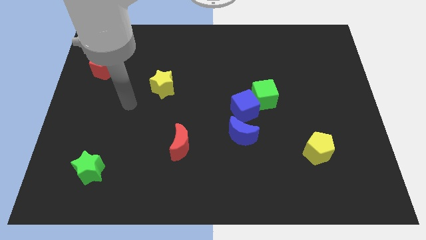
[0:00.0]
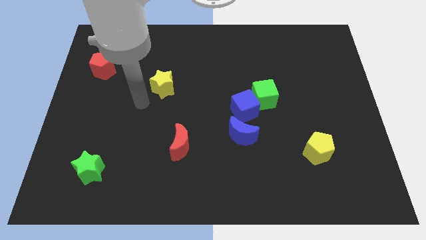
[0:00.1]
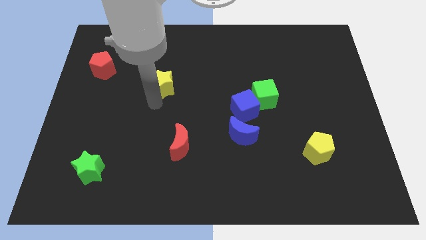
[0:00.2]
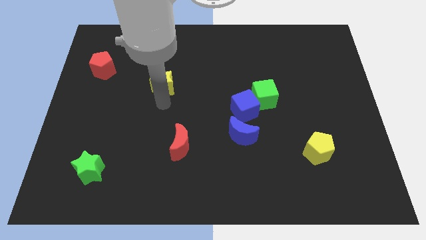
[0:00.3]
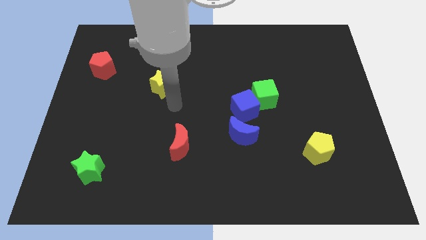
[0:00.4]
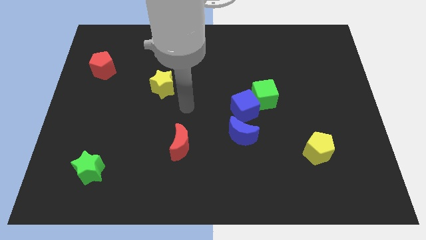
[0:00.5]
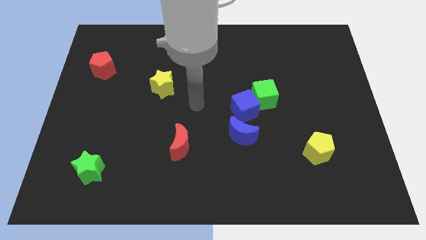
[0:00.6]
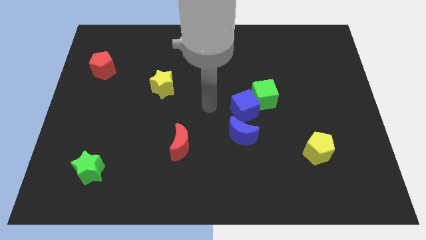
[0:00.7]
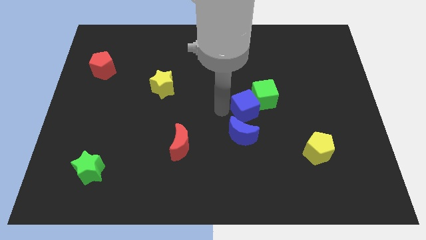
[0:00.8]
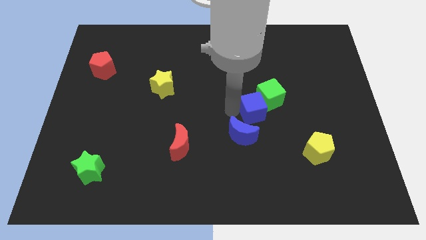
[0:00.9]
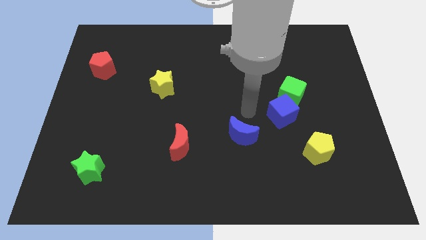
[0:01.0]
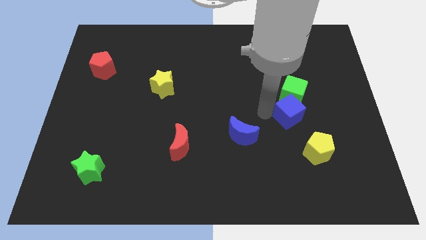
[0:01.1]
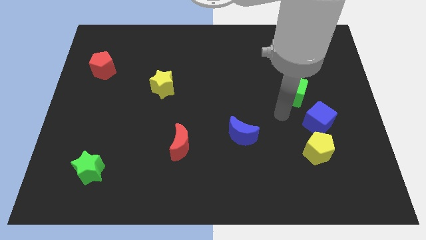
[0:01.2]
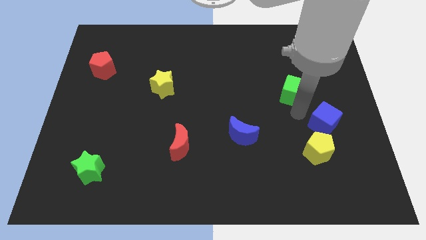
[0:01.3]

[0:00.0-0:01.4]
move the green cube away from the blue cube

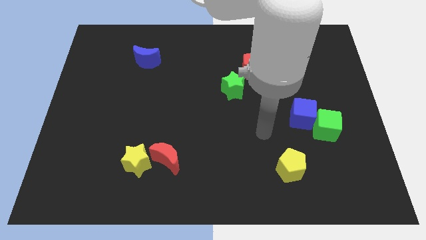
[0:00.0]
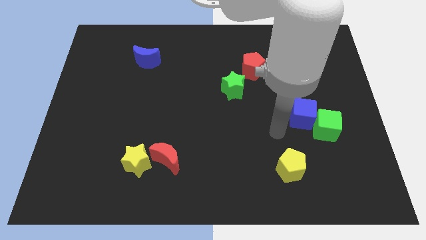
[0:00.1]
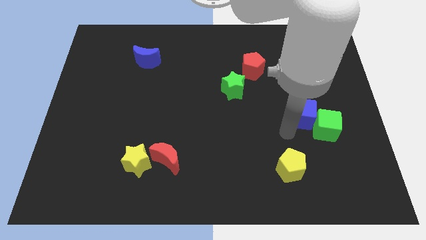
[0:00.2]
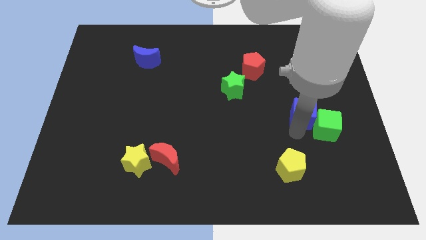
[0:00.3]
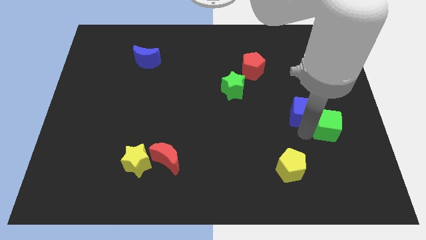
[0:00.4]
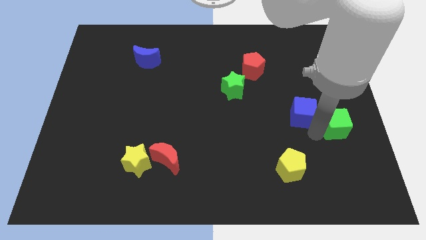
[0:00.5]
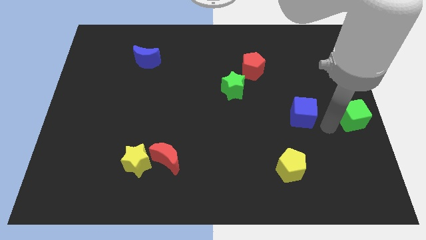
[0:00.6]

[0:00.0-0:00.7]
pull the blue cube apart from the green cube

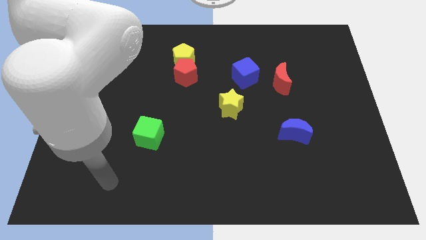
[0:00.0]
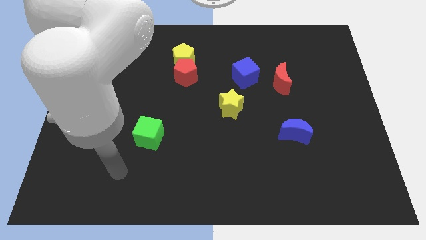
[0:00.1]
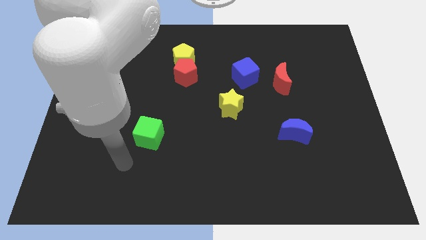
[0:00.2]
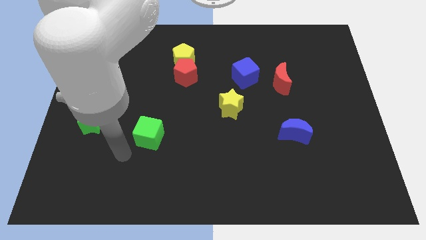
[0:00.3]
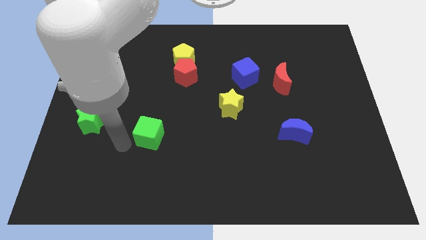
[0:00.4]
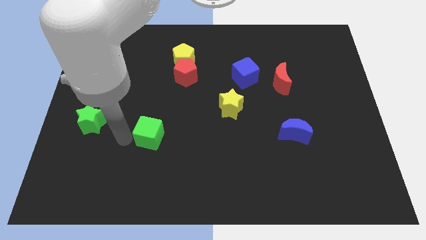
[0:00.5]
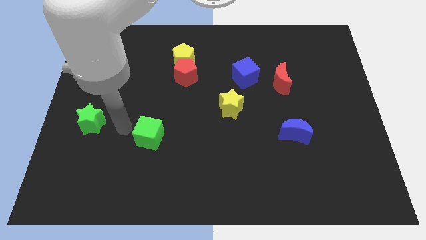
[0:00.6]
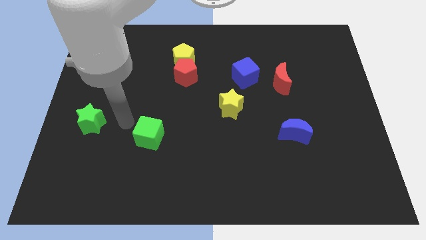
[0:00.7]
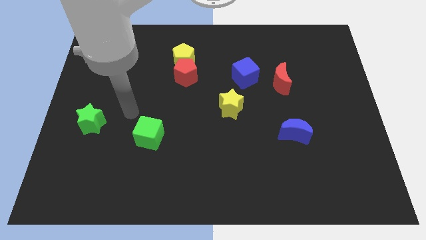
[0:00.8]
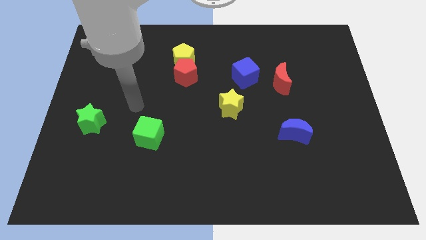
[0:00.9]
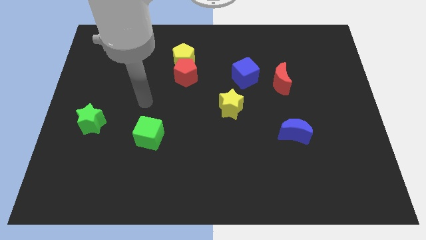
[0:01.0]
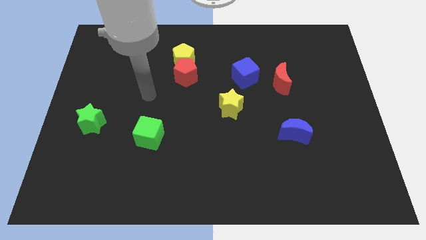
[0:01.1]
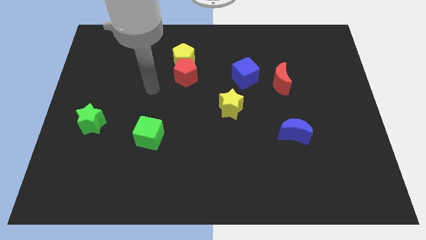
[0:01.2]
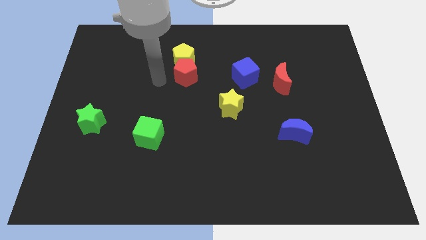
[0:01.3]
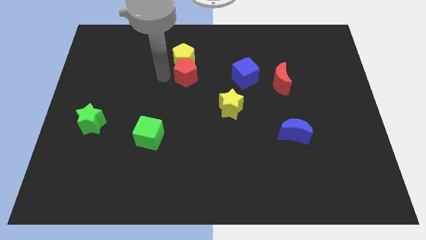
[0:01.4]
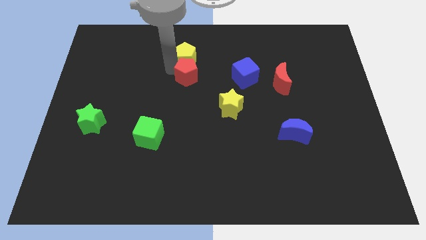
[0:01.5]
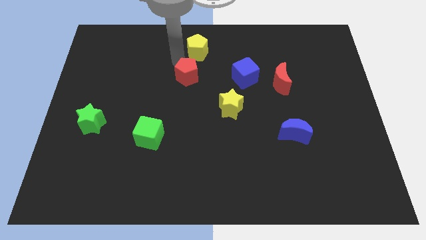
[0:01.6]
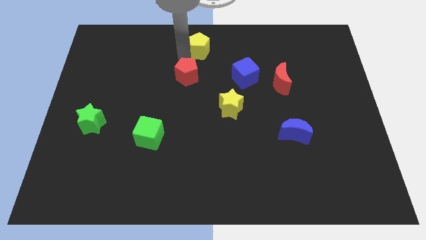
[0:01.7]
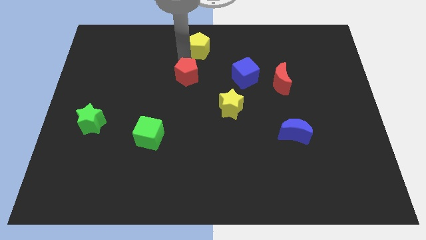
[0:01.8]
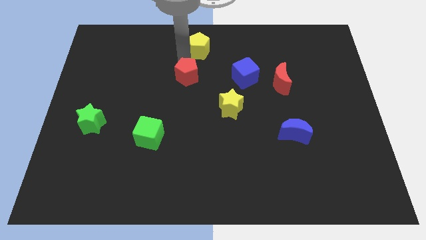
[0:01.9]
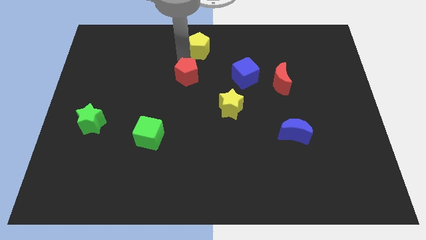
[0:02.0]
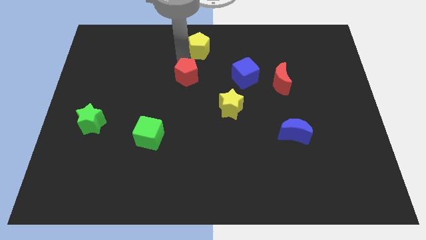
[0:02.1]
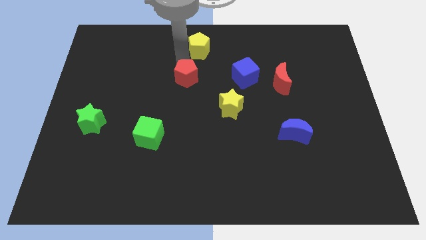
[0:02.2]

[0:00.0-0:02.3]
move the red pentagon away from the yellow pentagon

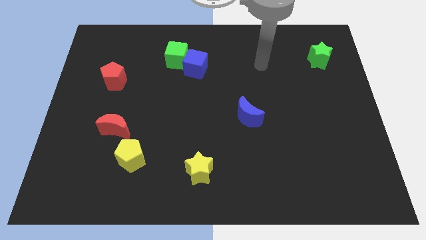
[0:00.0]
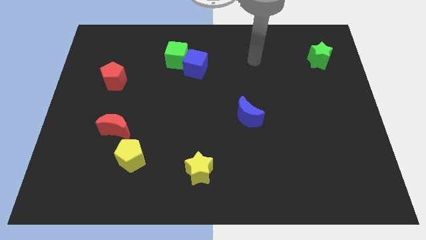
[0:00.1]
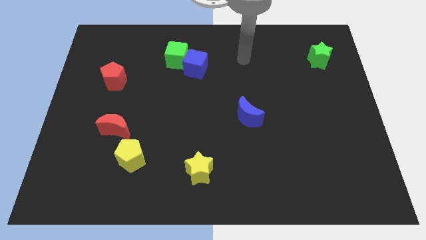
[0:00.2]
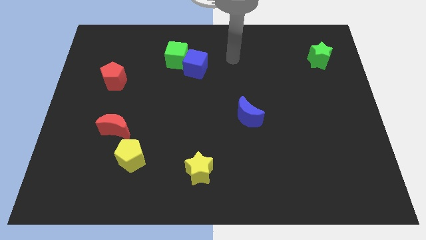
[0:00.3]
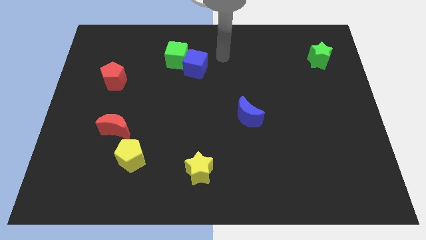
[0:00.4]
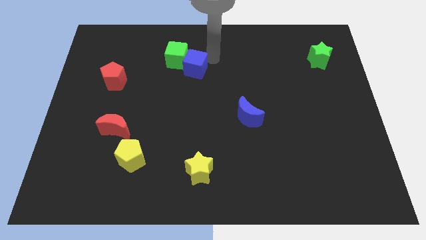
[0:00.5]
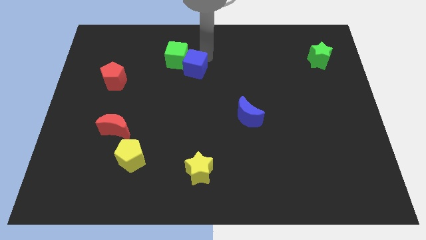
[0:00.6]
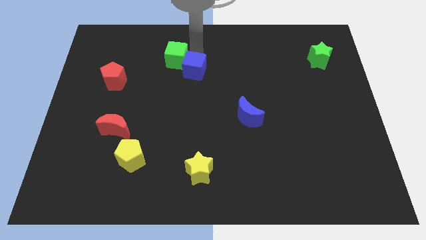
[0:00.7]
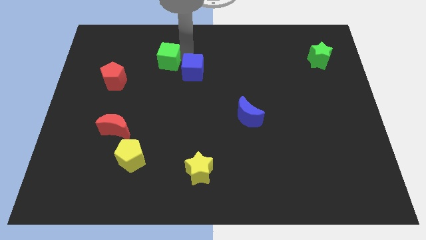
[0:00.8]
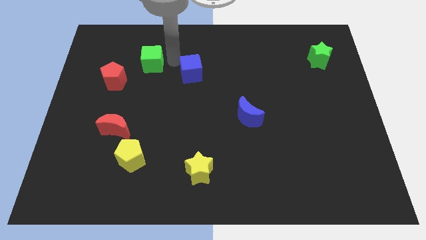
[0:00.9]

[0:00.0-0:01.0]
separate the blue cube from the green cube

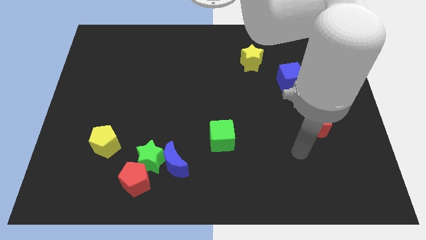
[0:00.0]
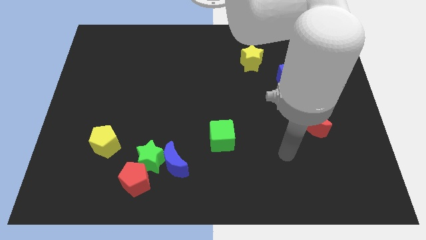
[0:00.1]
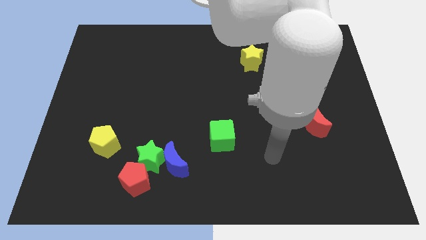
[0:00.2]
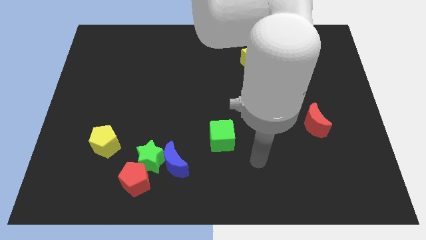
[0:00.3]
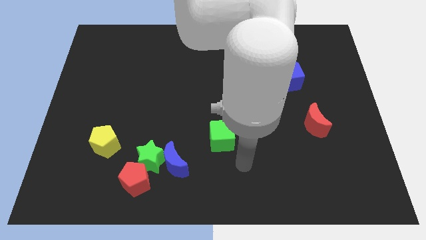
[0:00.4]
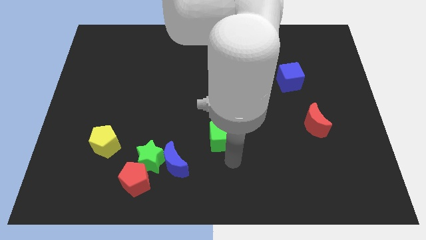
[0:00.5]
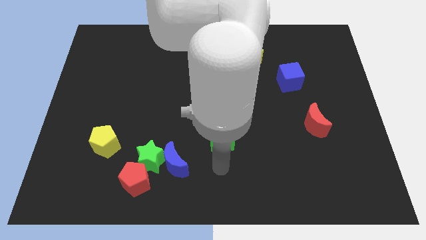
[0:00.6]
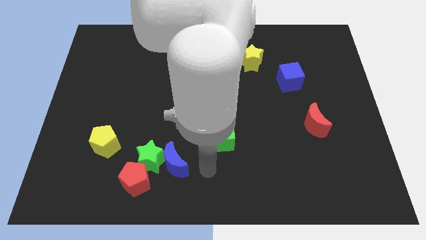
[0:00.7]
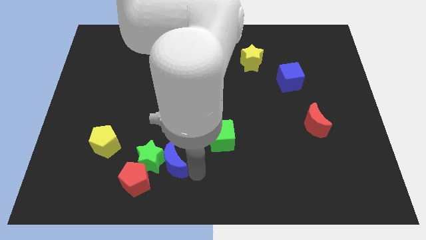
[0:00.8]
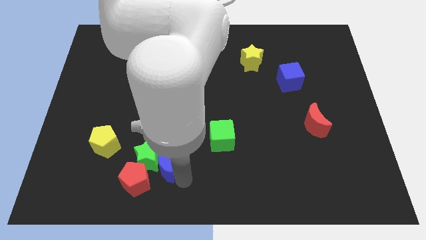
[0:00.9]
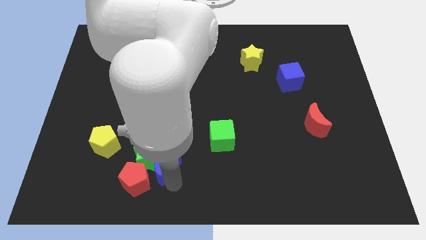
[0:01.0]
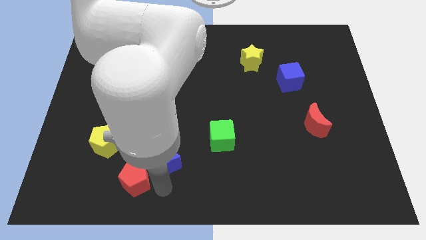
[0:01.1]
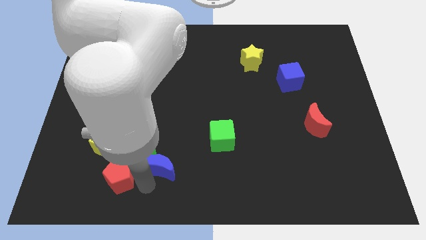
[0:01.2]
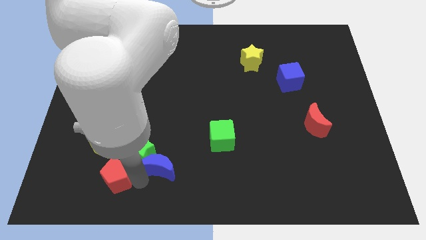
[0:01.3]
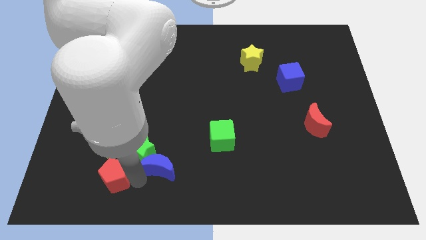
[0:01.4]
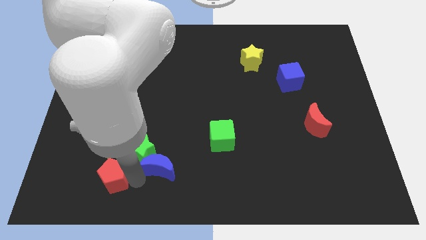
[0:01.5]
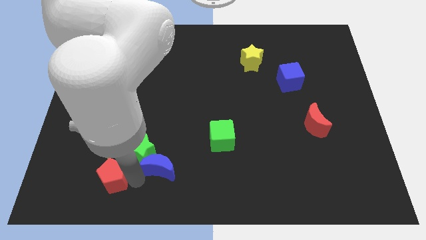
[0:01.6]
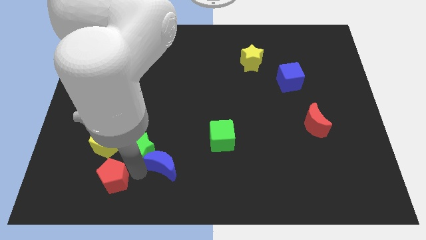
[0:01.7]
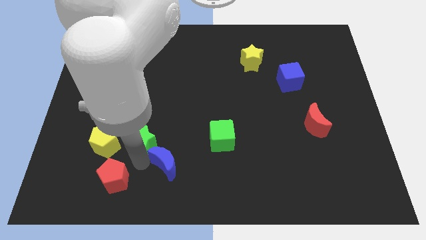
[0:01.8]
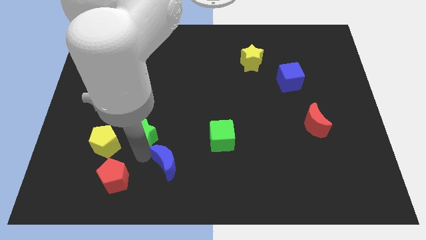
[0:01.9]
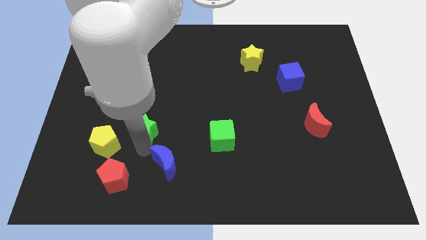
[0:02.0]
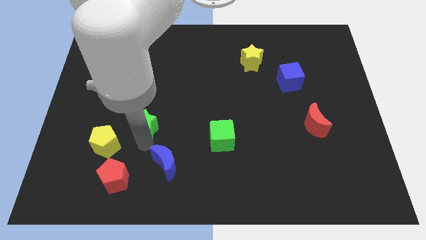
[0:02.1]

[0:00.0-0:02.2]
pull the green star apart from the blue moon and red pentagon

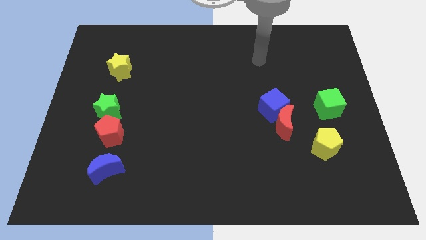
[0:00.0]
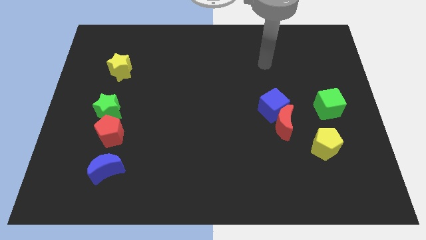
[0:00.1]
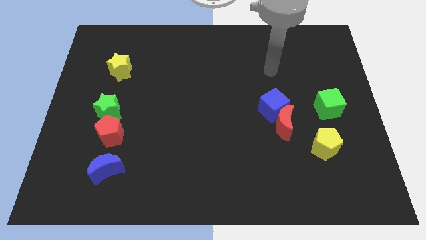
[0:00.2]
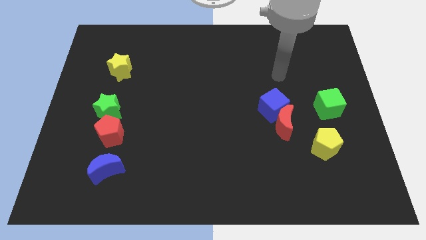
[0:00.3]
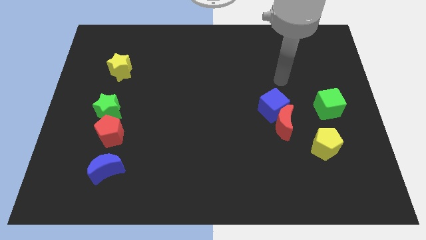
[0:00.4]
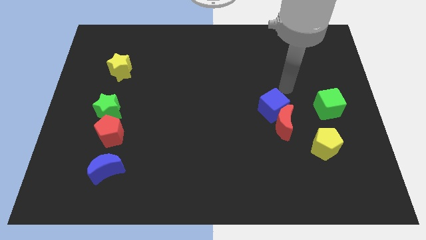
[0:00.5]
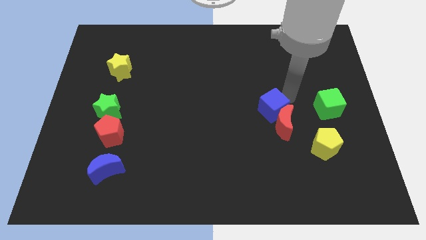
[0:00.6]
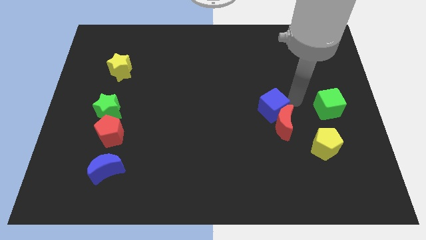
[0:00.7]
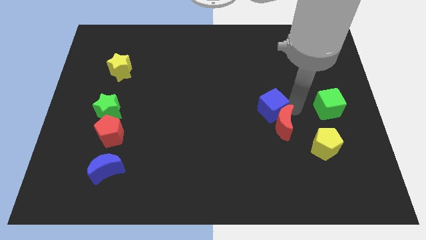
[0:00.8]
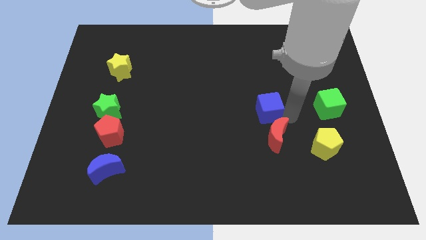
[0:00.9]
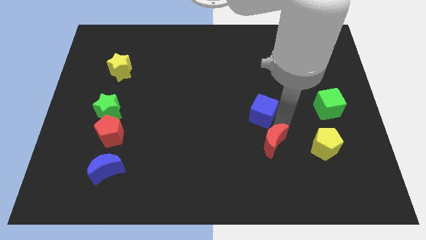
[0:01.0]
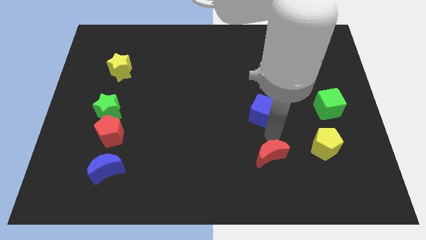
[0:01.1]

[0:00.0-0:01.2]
separate the blue cube from the red moon

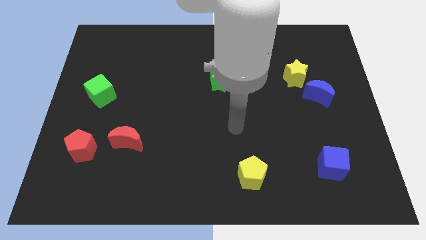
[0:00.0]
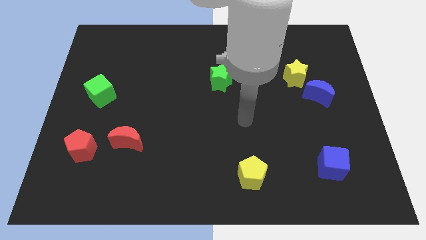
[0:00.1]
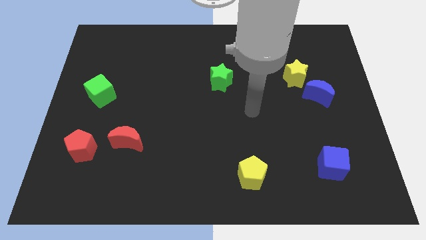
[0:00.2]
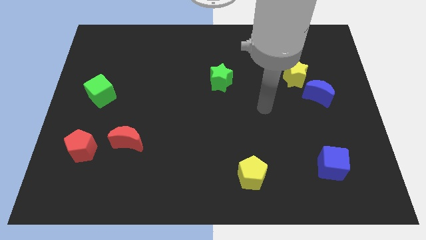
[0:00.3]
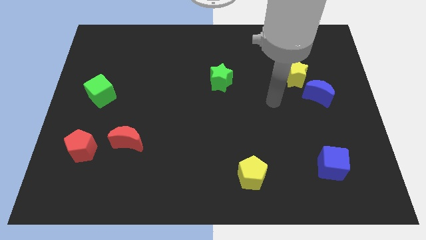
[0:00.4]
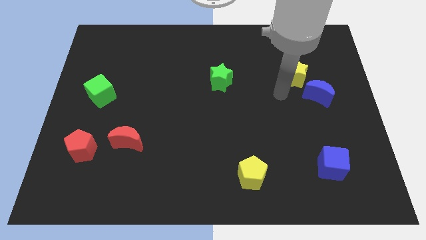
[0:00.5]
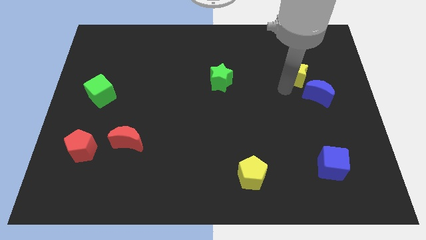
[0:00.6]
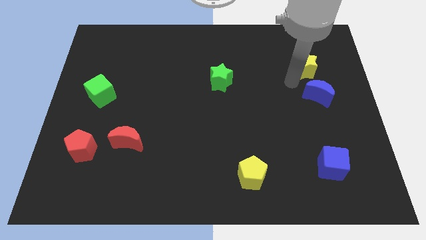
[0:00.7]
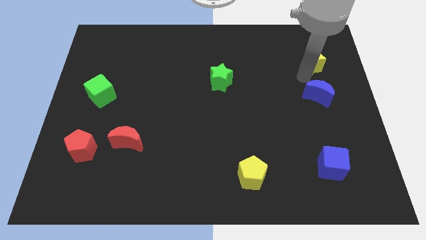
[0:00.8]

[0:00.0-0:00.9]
move the blue moon away from the yellow star
